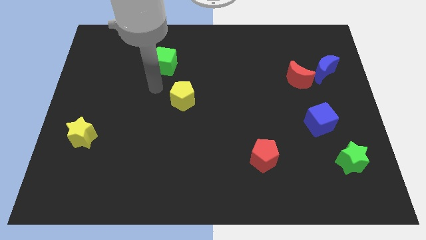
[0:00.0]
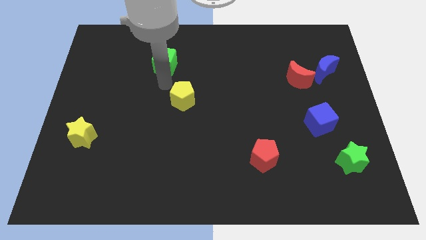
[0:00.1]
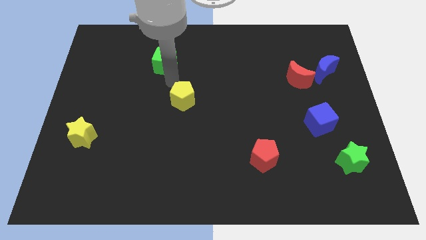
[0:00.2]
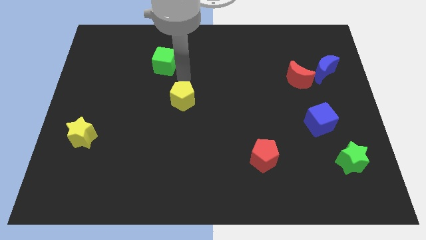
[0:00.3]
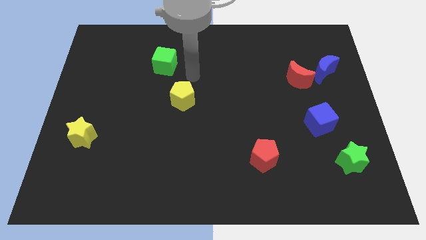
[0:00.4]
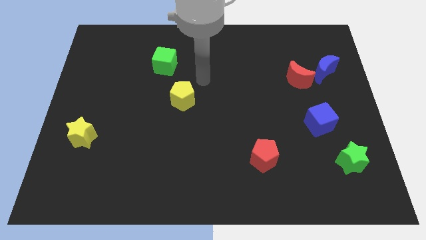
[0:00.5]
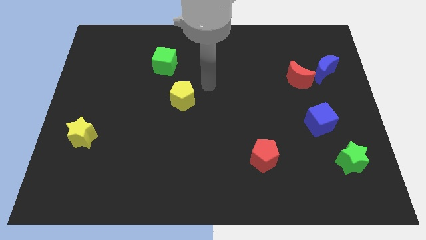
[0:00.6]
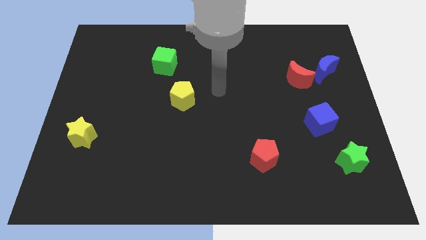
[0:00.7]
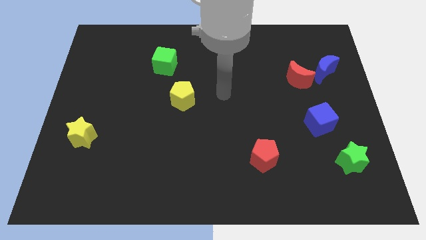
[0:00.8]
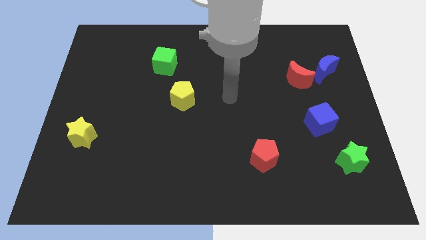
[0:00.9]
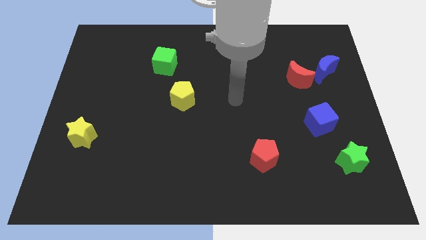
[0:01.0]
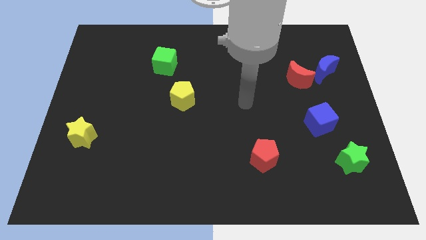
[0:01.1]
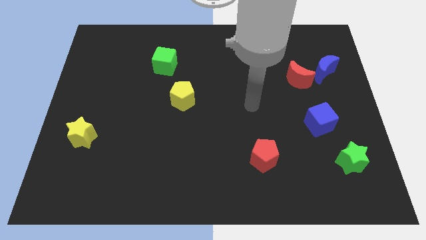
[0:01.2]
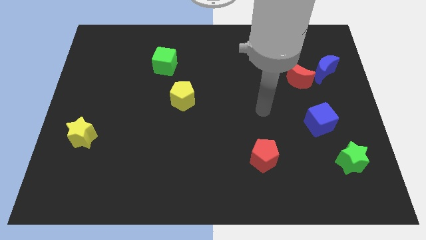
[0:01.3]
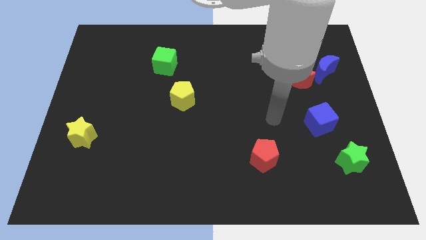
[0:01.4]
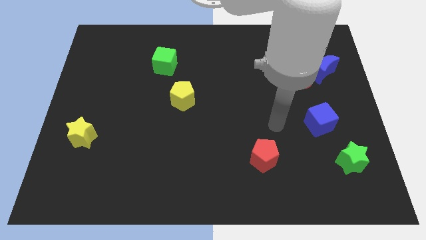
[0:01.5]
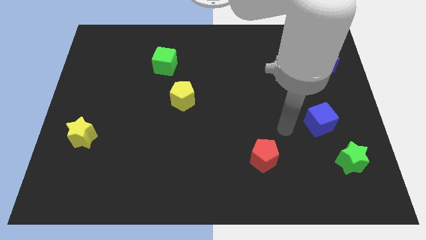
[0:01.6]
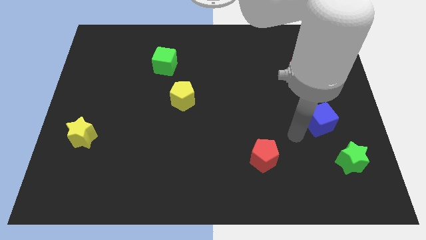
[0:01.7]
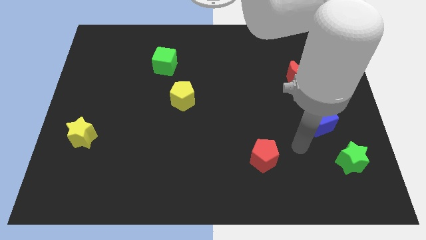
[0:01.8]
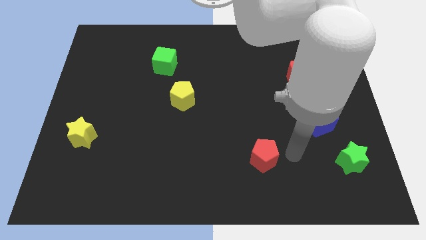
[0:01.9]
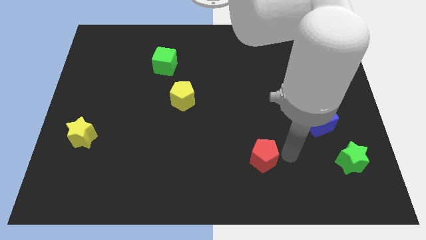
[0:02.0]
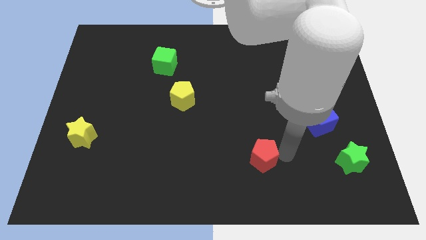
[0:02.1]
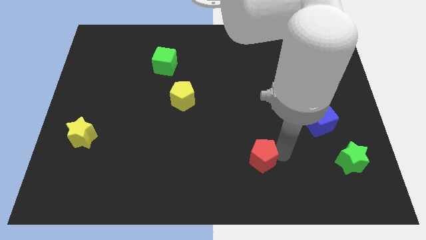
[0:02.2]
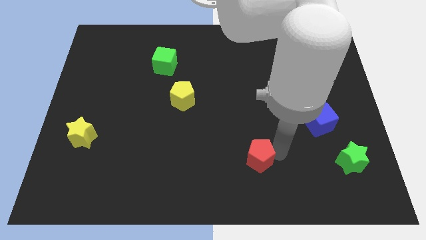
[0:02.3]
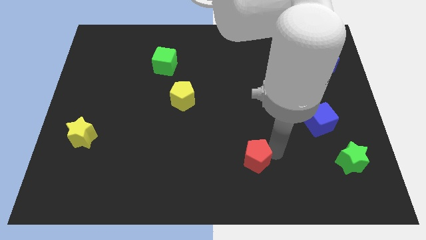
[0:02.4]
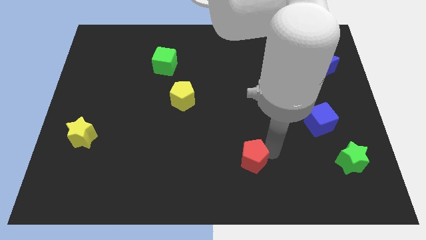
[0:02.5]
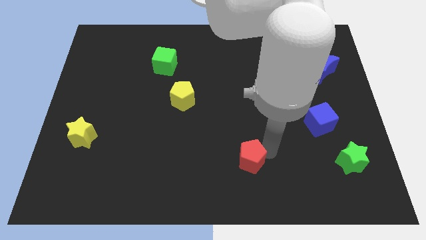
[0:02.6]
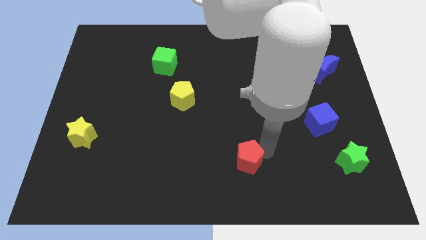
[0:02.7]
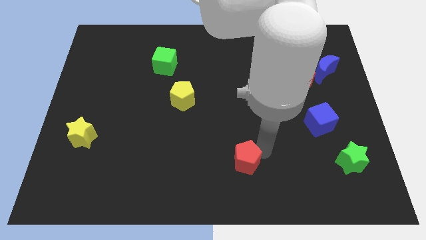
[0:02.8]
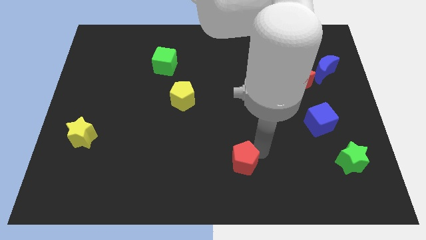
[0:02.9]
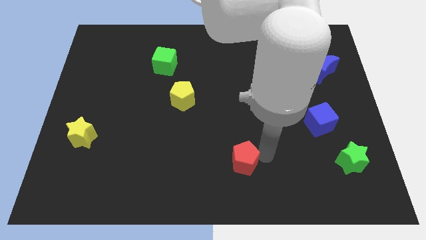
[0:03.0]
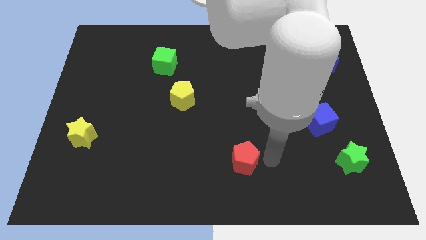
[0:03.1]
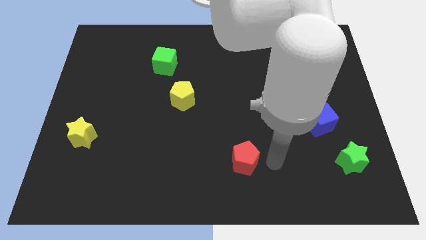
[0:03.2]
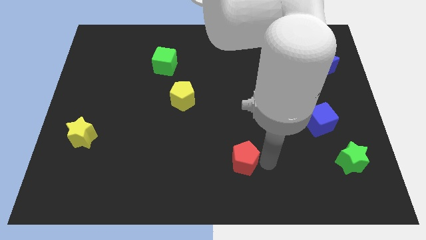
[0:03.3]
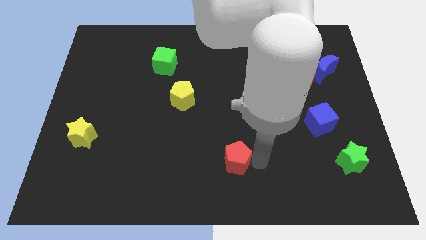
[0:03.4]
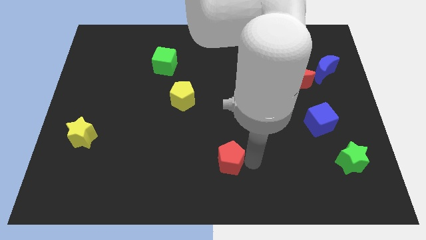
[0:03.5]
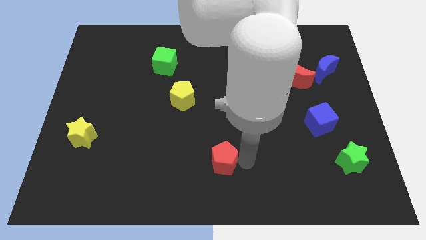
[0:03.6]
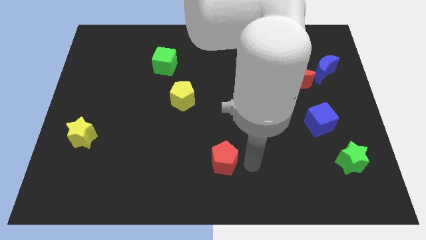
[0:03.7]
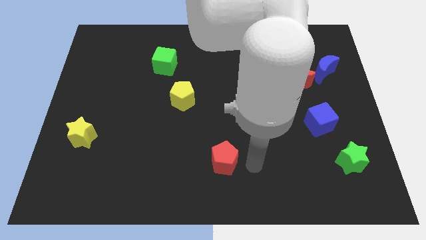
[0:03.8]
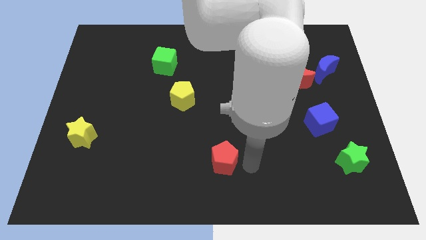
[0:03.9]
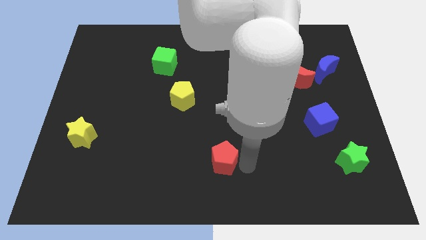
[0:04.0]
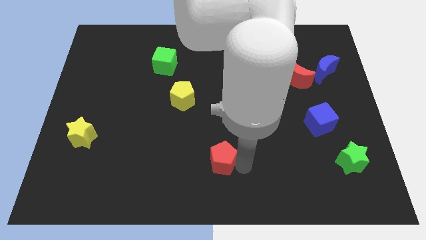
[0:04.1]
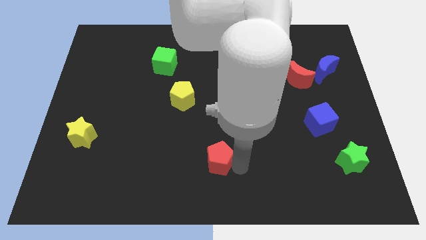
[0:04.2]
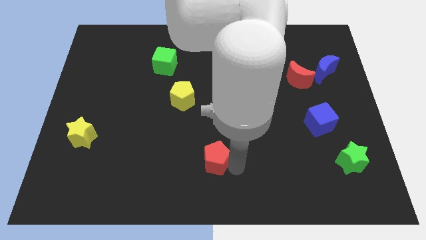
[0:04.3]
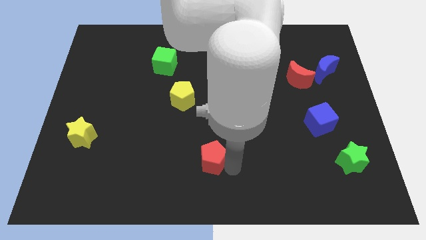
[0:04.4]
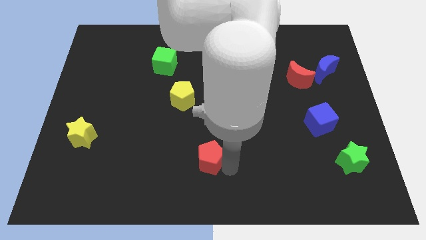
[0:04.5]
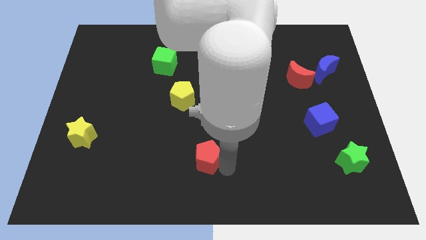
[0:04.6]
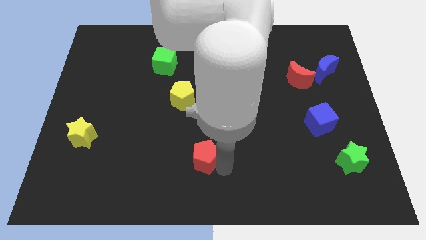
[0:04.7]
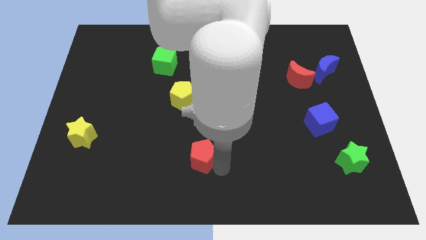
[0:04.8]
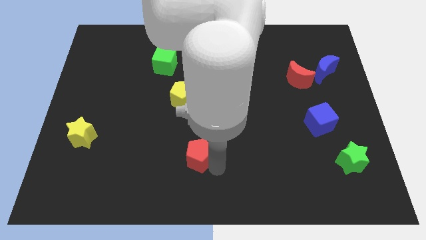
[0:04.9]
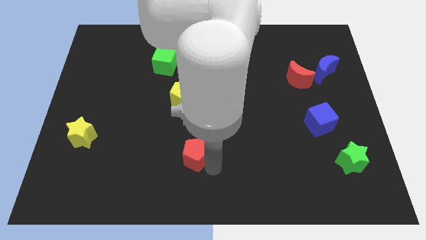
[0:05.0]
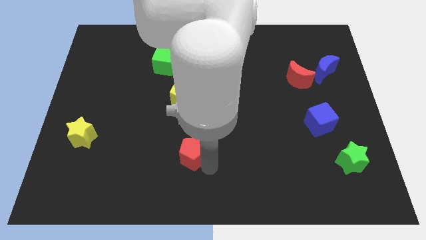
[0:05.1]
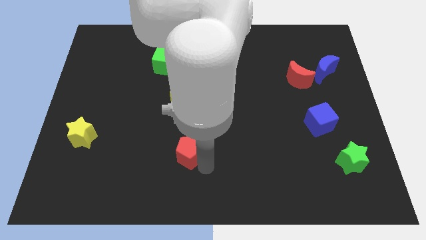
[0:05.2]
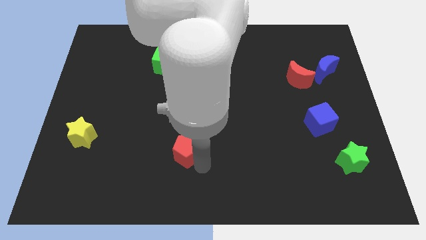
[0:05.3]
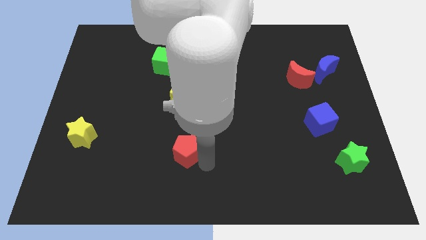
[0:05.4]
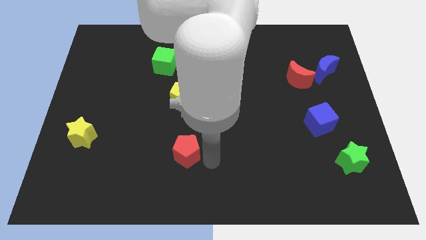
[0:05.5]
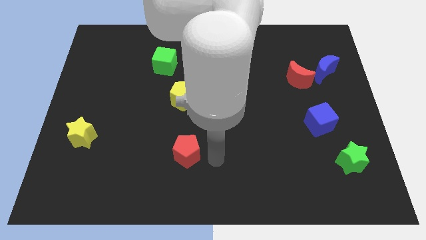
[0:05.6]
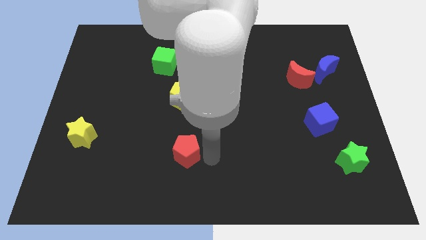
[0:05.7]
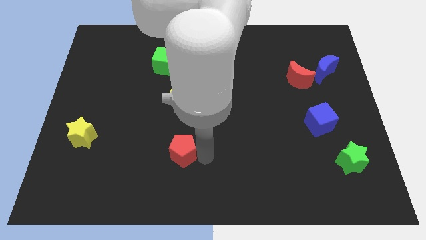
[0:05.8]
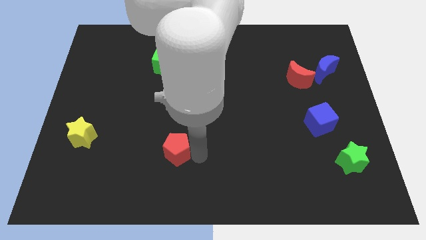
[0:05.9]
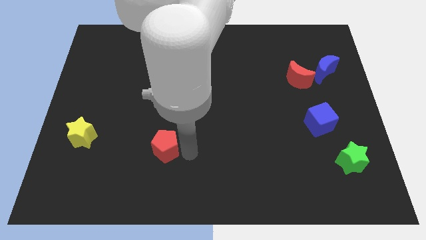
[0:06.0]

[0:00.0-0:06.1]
slide the red pentagon left

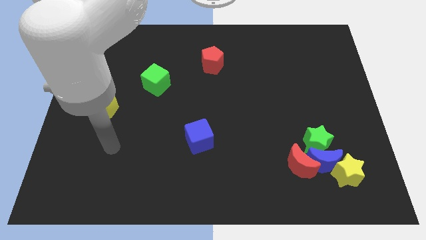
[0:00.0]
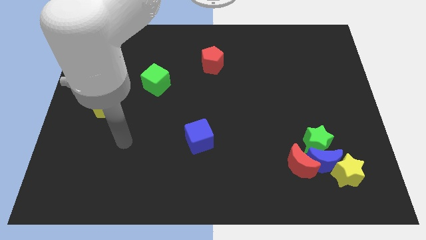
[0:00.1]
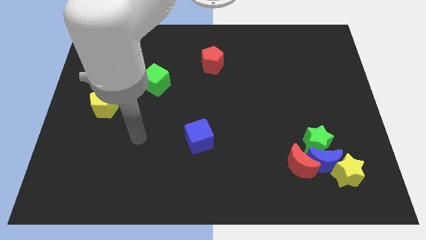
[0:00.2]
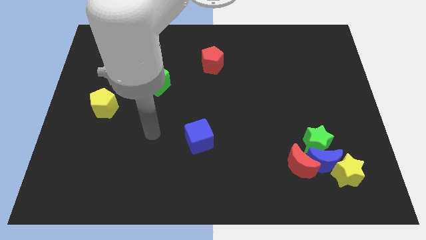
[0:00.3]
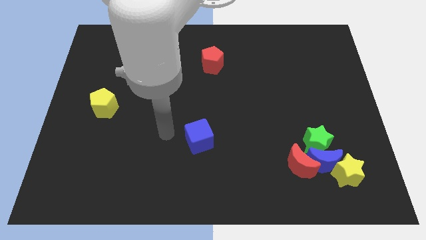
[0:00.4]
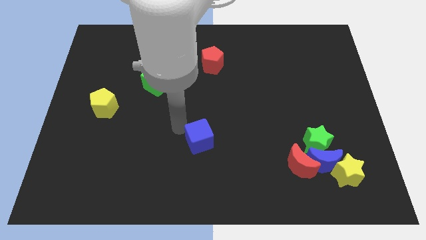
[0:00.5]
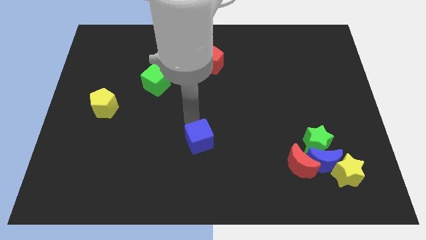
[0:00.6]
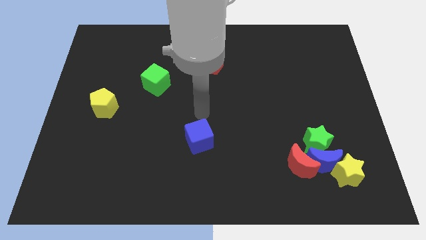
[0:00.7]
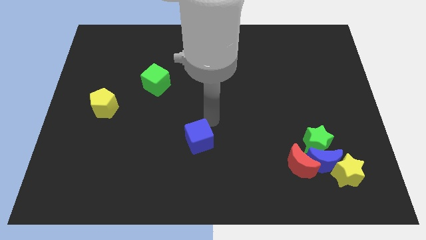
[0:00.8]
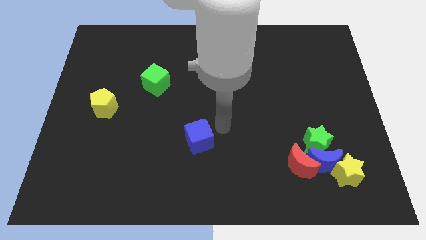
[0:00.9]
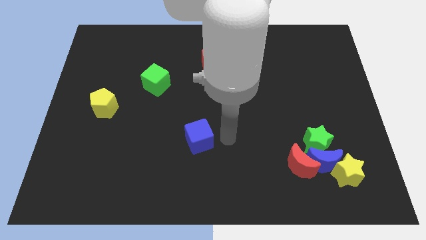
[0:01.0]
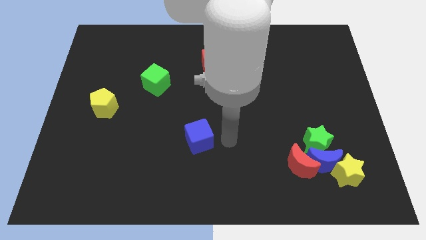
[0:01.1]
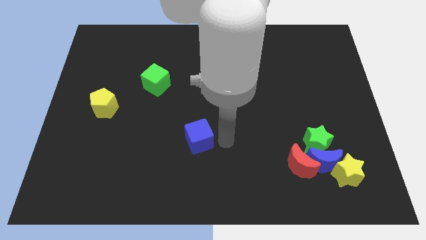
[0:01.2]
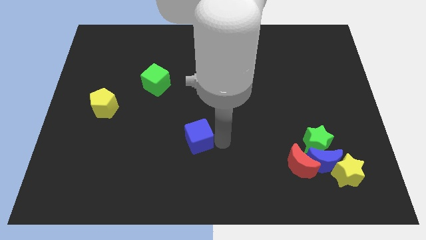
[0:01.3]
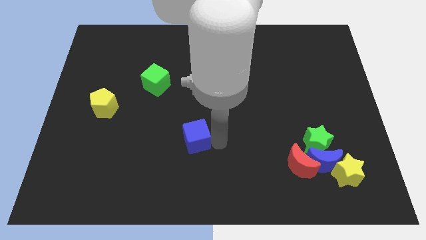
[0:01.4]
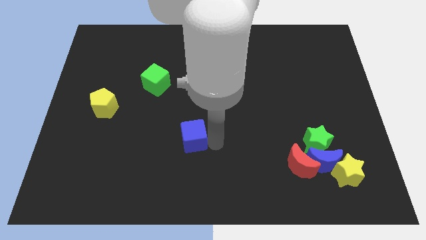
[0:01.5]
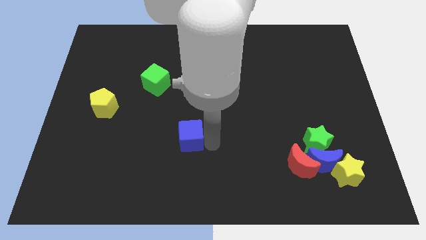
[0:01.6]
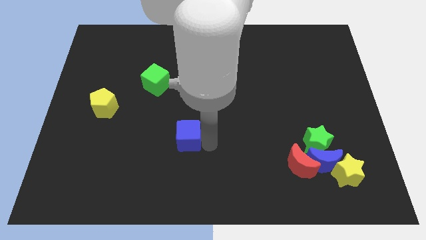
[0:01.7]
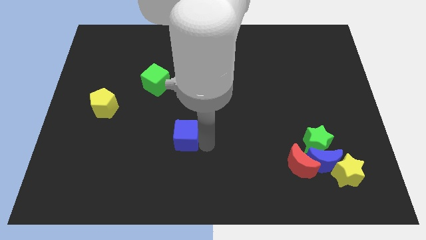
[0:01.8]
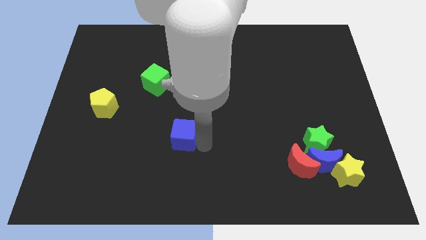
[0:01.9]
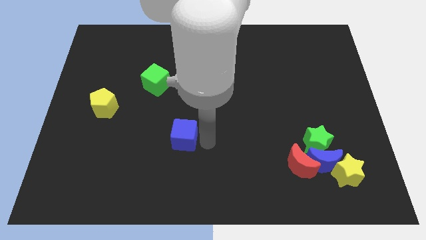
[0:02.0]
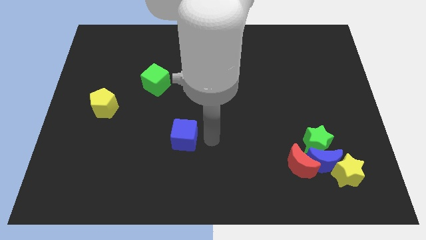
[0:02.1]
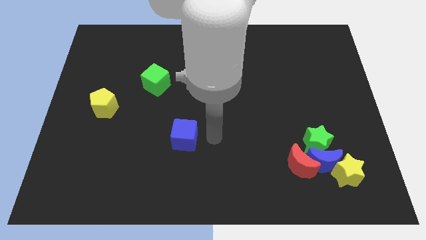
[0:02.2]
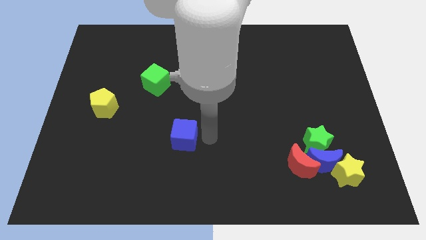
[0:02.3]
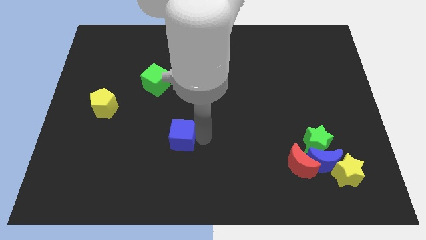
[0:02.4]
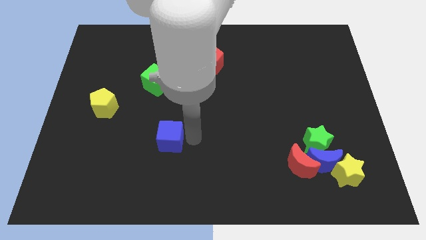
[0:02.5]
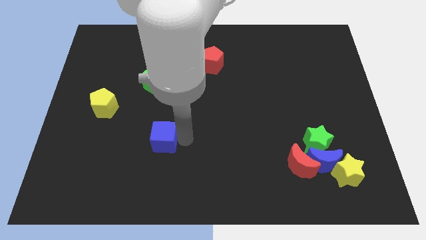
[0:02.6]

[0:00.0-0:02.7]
slightly slide the blue cube left
